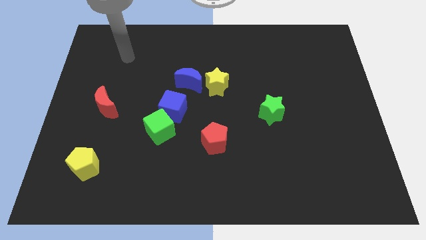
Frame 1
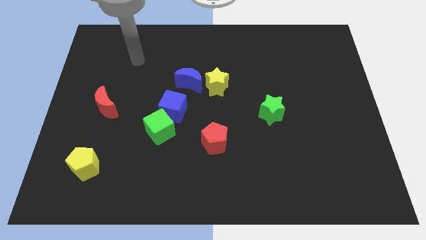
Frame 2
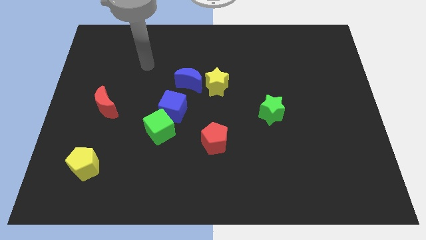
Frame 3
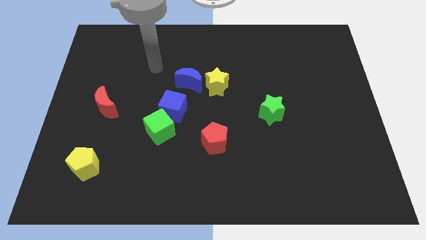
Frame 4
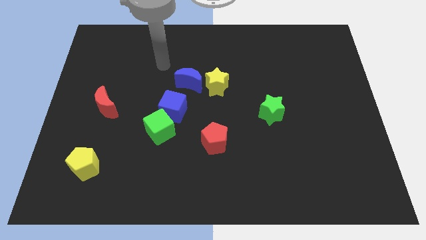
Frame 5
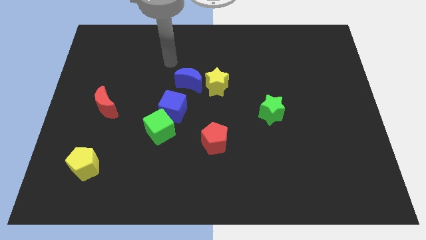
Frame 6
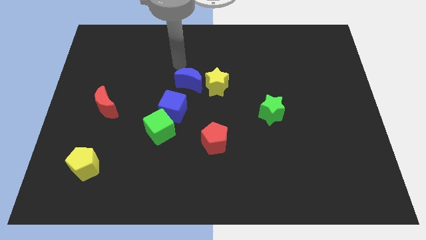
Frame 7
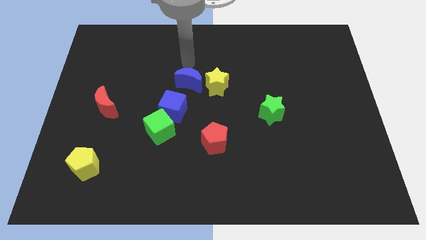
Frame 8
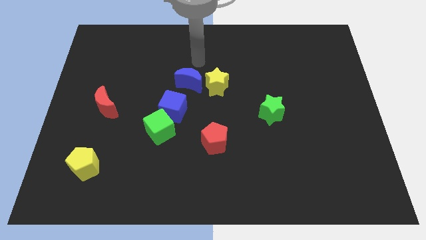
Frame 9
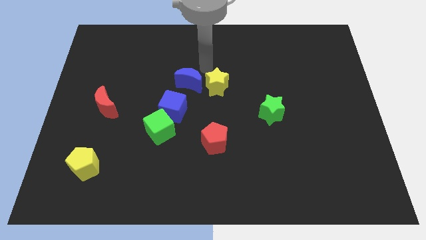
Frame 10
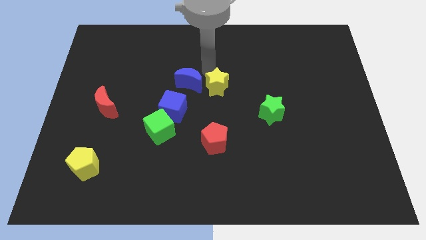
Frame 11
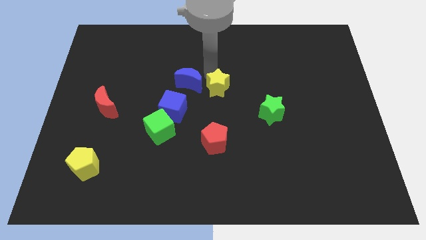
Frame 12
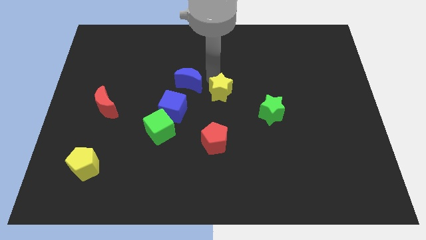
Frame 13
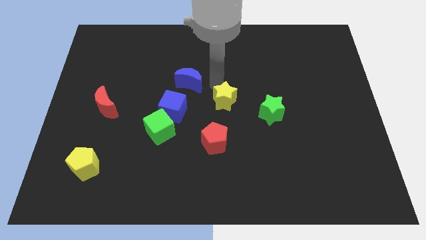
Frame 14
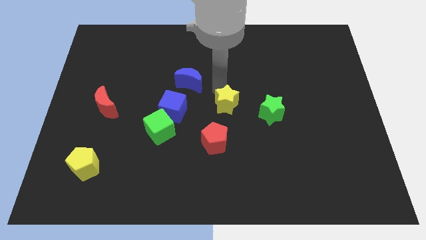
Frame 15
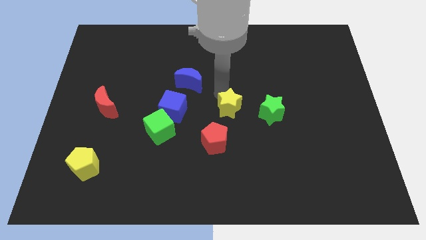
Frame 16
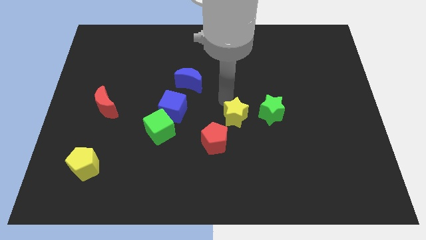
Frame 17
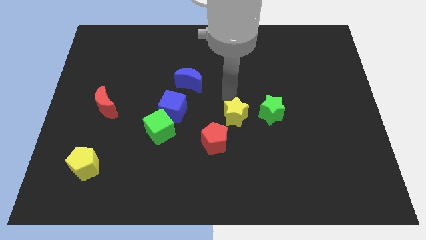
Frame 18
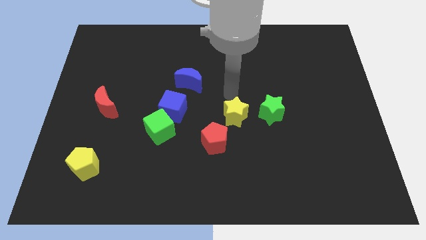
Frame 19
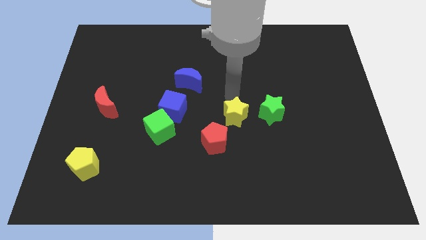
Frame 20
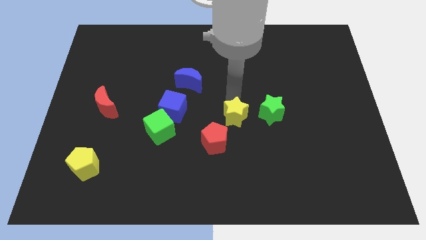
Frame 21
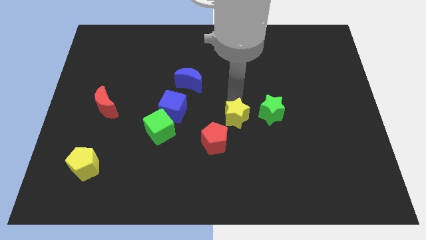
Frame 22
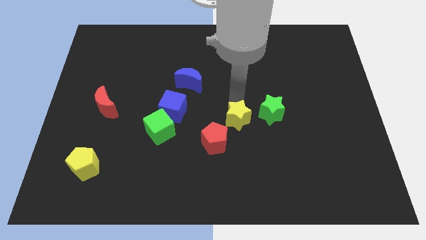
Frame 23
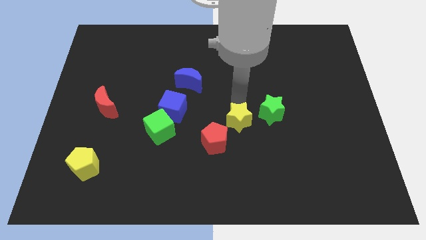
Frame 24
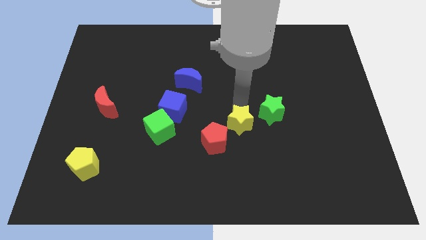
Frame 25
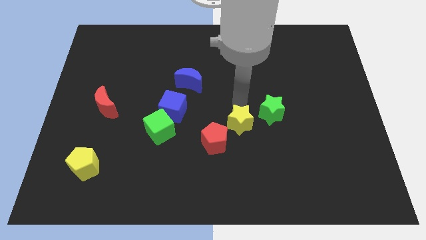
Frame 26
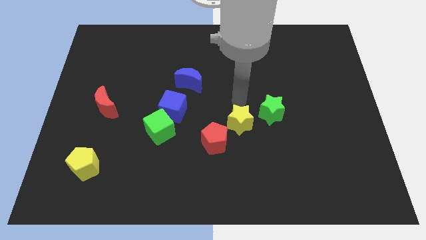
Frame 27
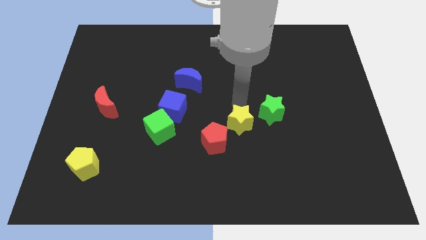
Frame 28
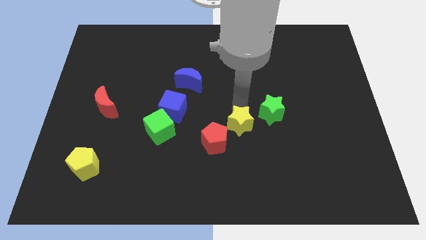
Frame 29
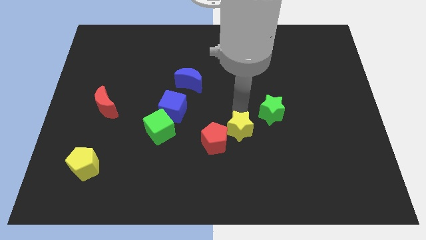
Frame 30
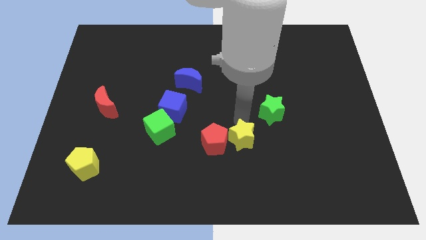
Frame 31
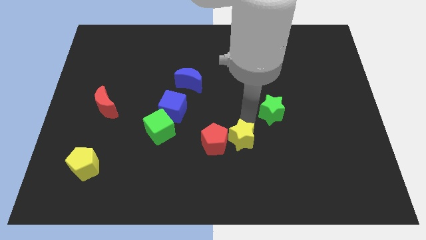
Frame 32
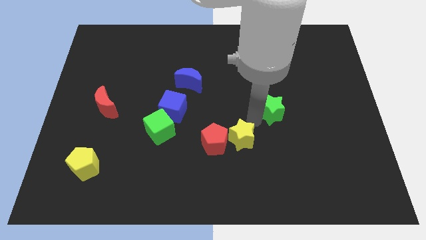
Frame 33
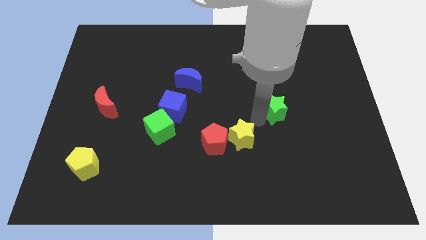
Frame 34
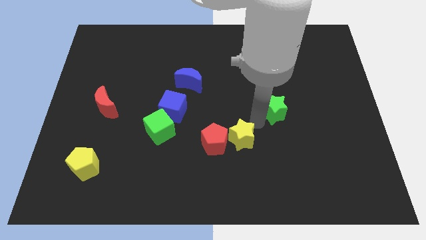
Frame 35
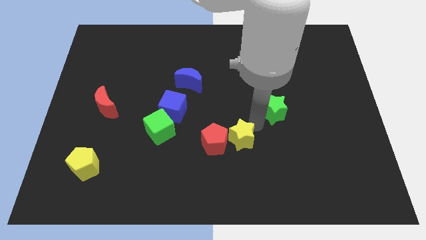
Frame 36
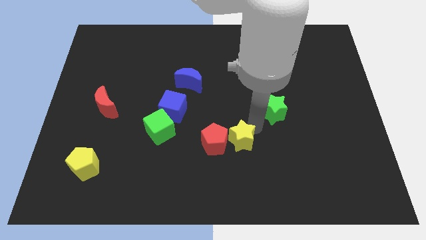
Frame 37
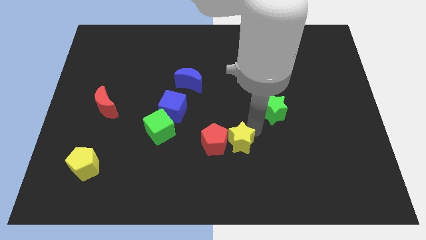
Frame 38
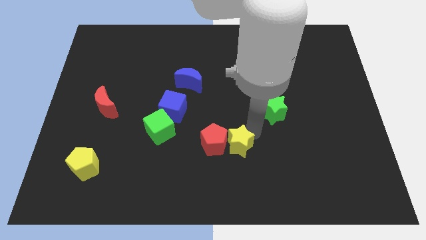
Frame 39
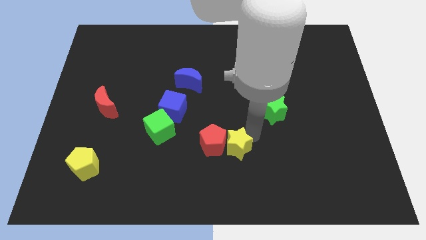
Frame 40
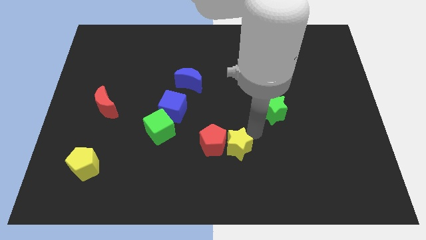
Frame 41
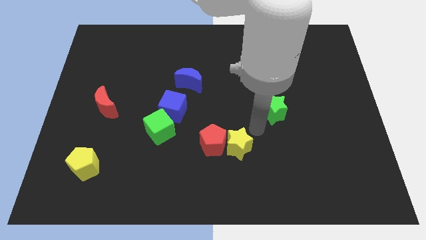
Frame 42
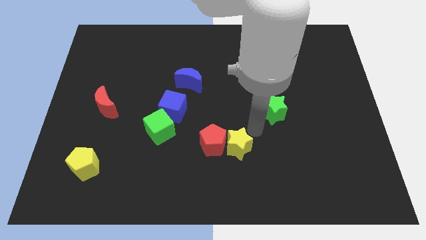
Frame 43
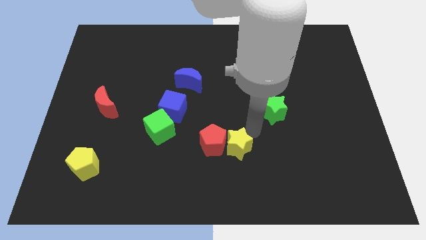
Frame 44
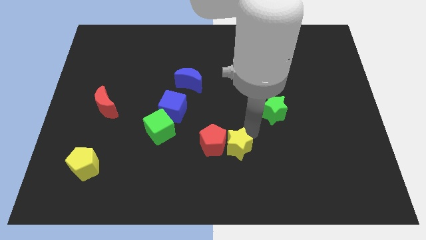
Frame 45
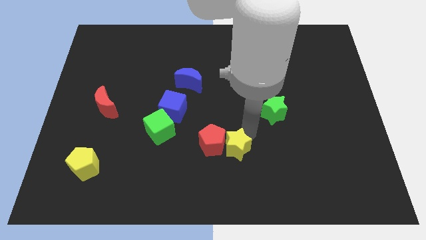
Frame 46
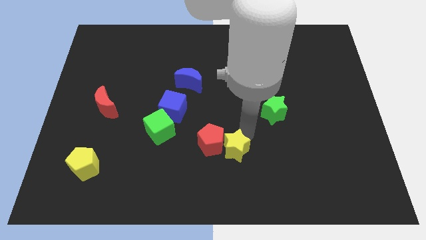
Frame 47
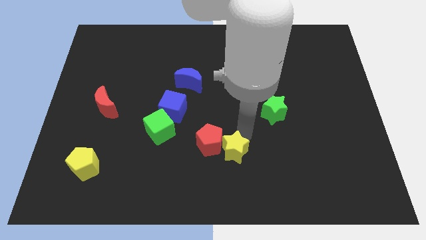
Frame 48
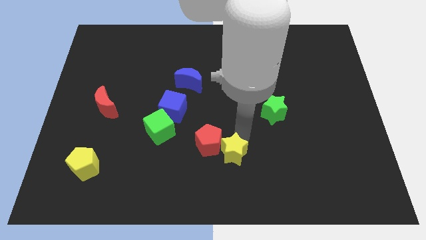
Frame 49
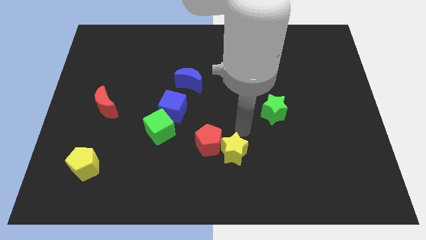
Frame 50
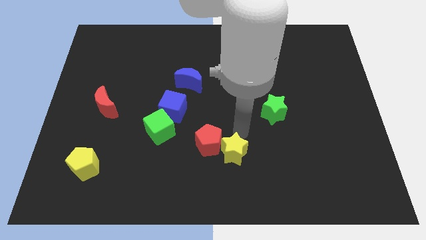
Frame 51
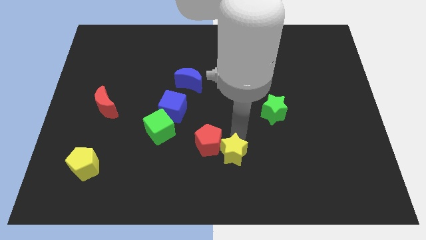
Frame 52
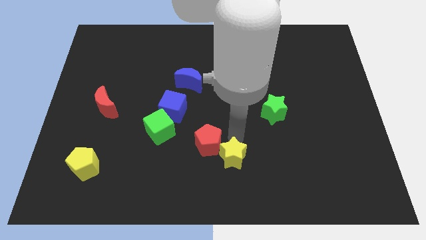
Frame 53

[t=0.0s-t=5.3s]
push the yellow star to the bottom
